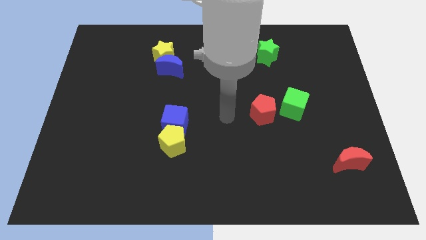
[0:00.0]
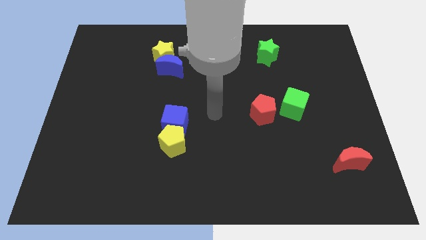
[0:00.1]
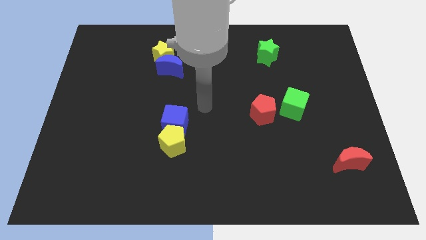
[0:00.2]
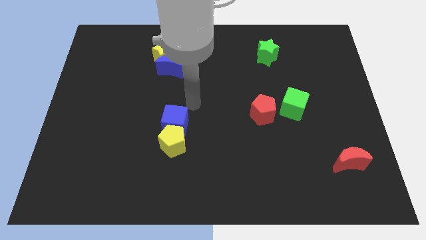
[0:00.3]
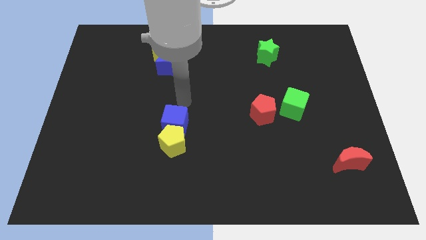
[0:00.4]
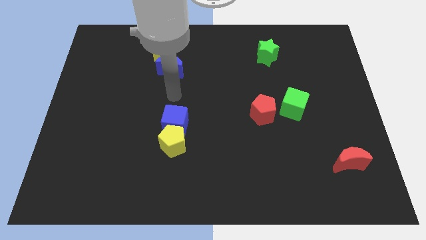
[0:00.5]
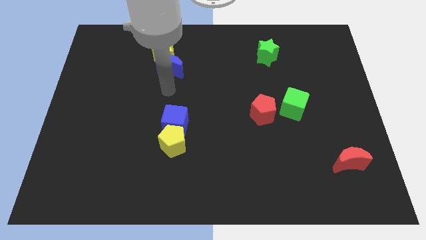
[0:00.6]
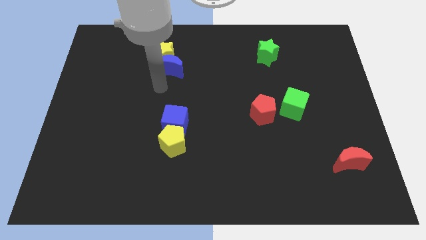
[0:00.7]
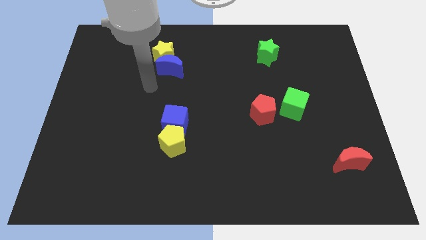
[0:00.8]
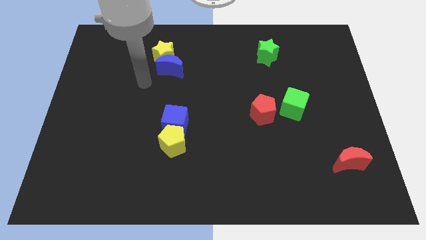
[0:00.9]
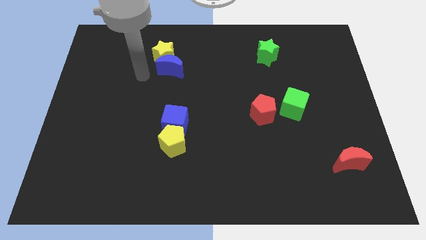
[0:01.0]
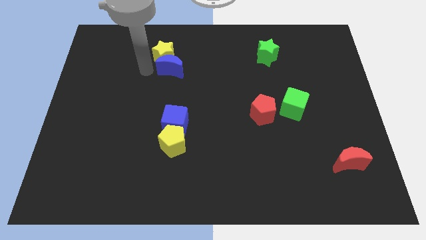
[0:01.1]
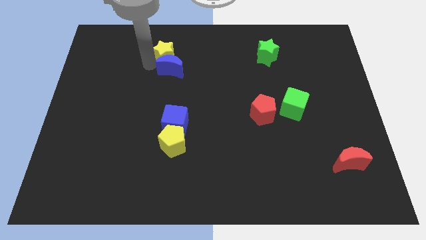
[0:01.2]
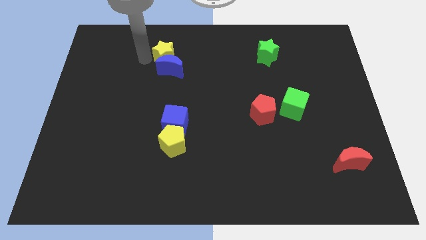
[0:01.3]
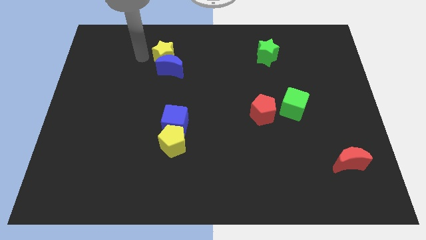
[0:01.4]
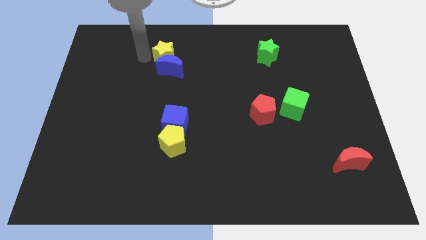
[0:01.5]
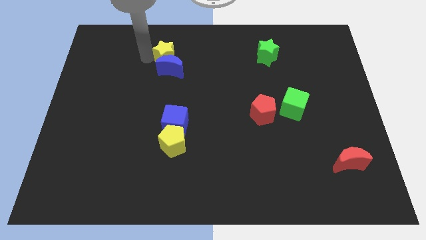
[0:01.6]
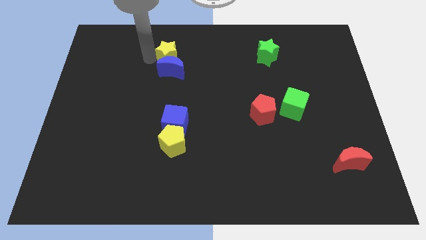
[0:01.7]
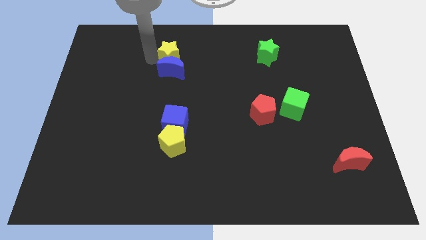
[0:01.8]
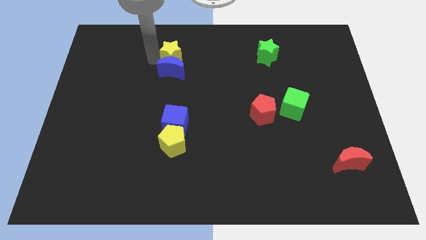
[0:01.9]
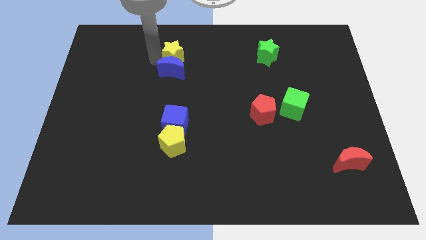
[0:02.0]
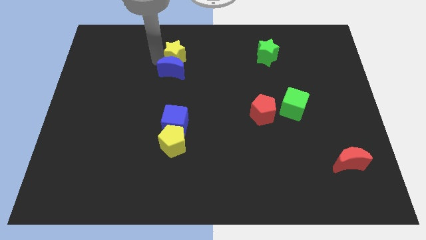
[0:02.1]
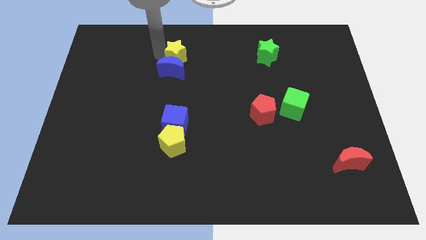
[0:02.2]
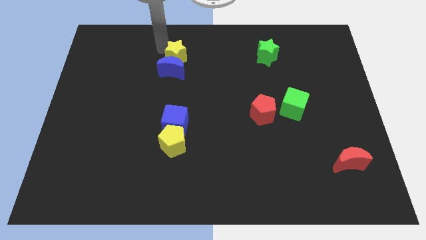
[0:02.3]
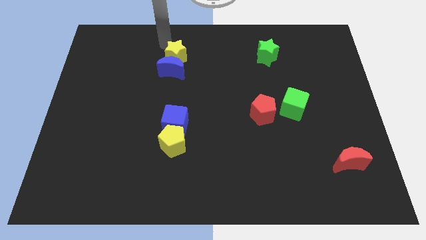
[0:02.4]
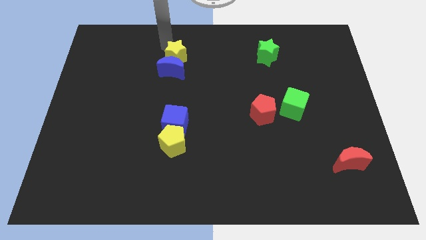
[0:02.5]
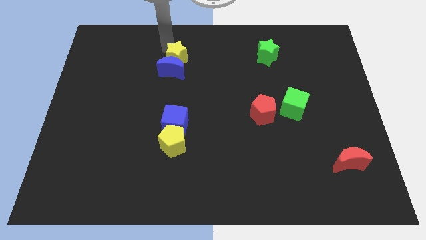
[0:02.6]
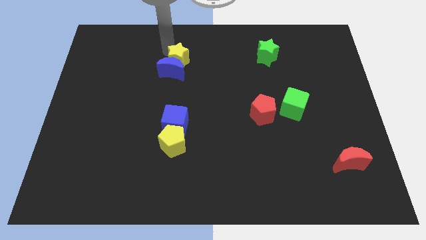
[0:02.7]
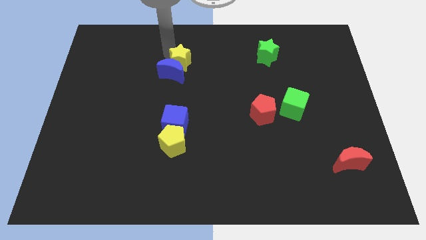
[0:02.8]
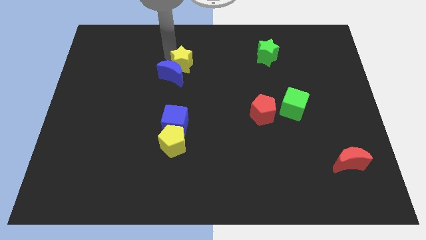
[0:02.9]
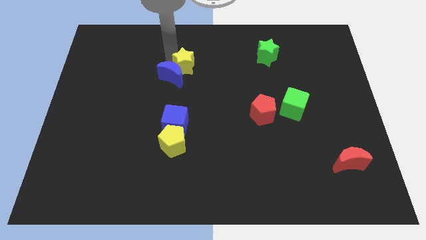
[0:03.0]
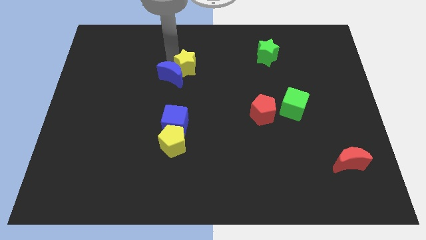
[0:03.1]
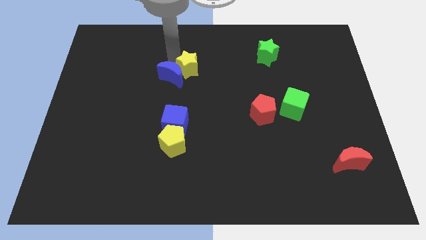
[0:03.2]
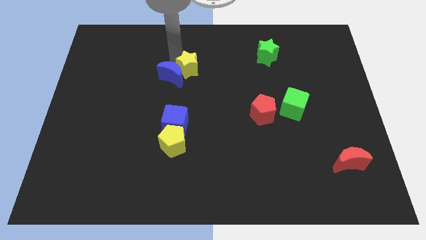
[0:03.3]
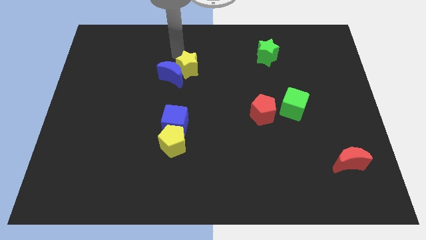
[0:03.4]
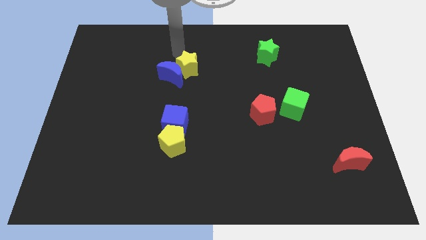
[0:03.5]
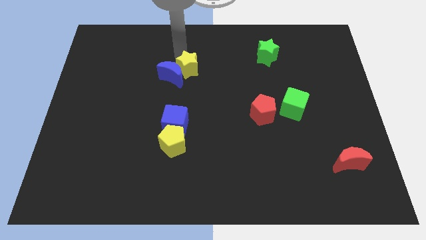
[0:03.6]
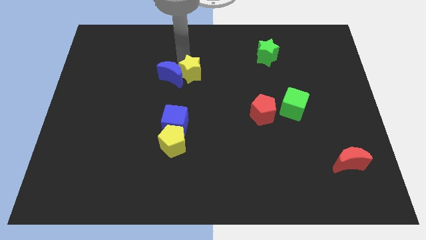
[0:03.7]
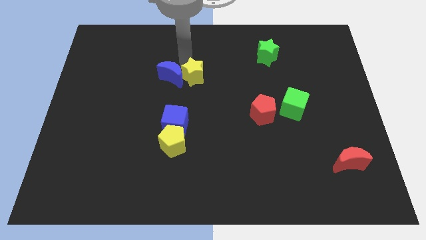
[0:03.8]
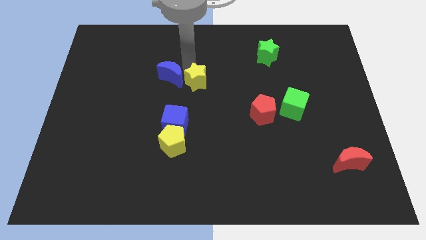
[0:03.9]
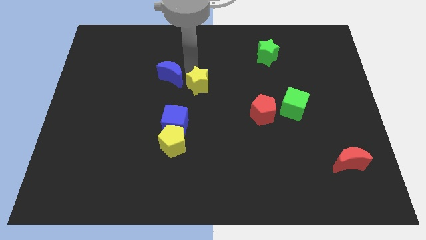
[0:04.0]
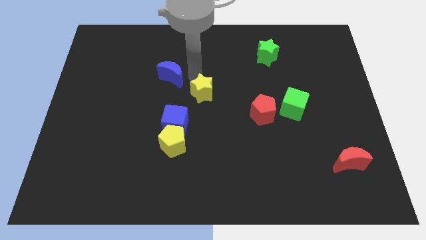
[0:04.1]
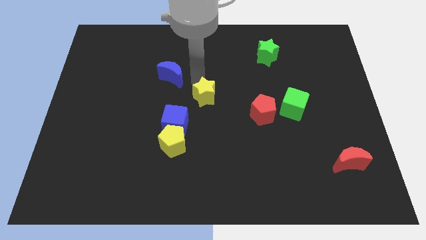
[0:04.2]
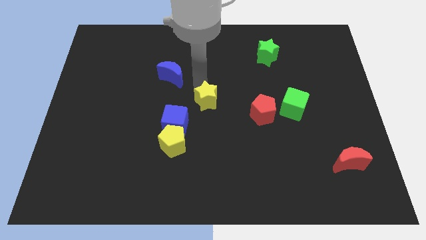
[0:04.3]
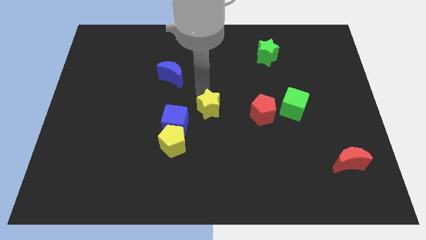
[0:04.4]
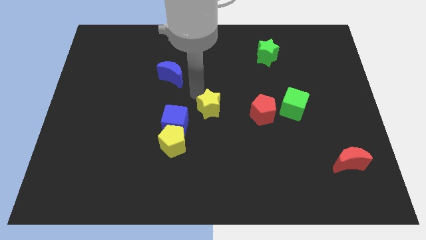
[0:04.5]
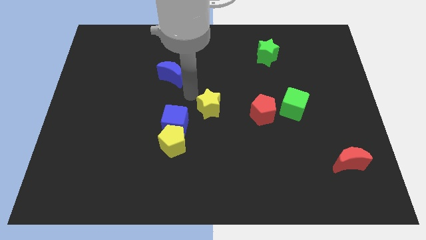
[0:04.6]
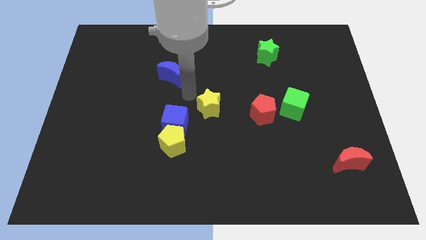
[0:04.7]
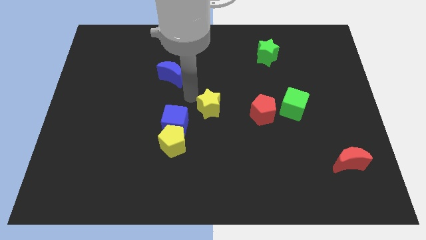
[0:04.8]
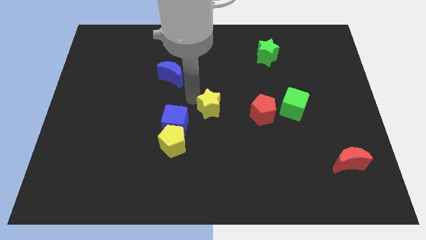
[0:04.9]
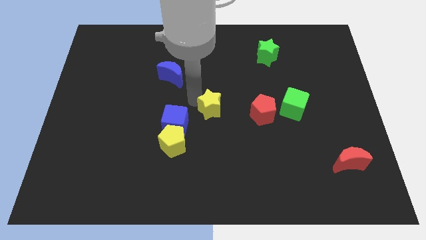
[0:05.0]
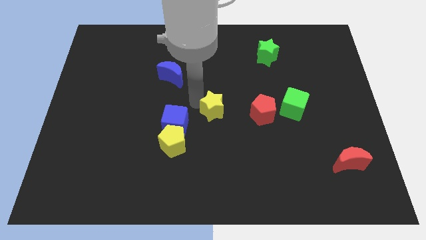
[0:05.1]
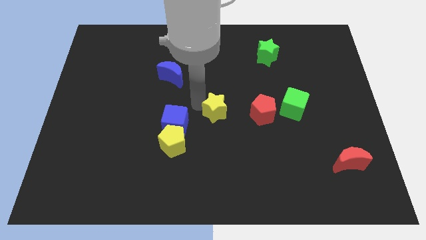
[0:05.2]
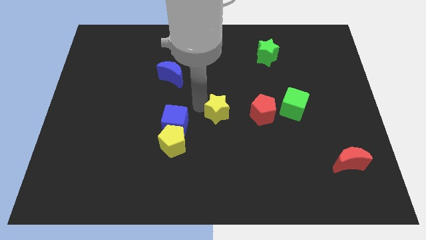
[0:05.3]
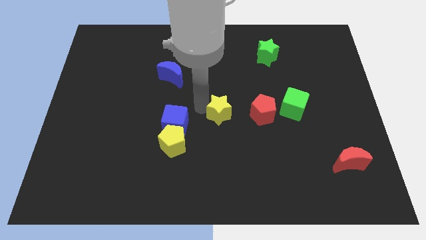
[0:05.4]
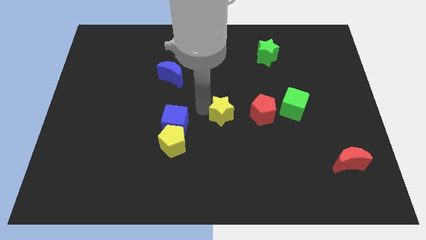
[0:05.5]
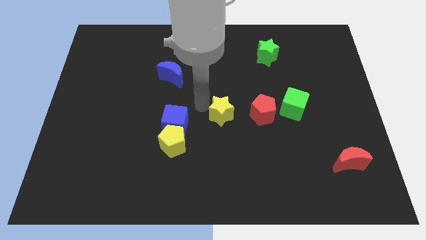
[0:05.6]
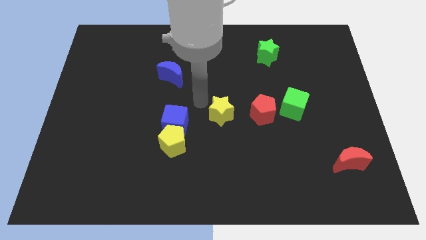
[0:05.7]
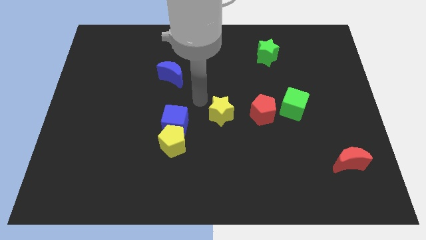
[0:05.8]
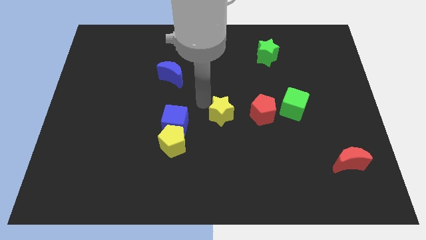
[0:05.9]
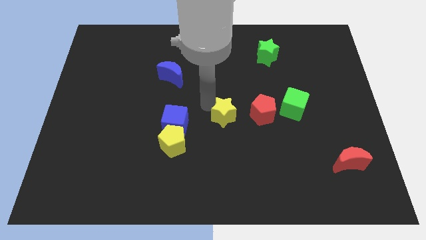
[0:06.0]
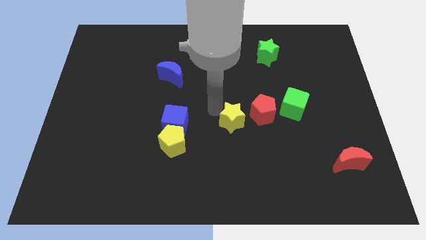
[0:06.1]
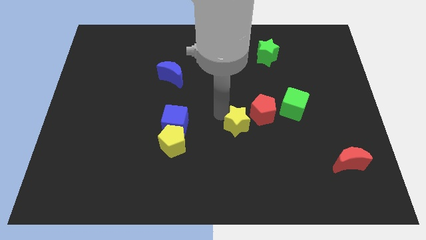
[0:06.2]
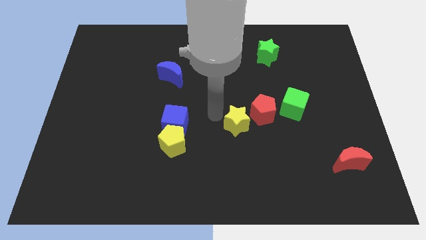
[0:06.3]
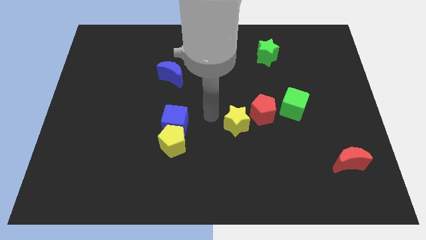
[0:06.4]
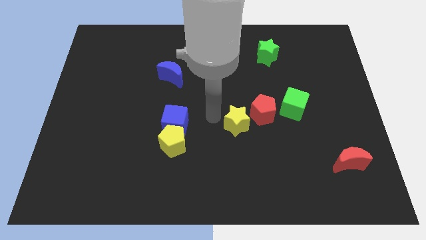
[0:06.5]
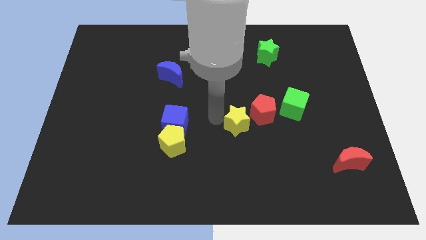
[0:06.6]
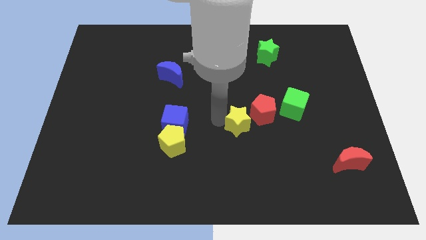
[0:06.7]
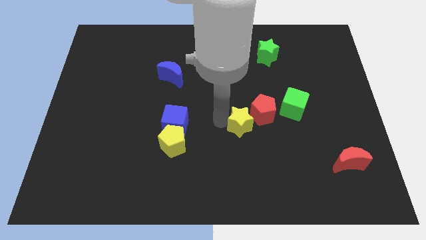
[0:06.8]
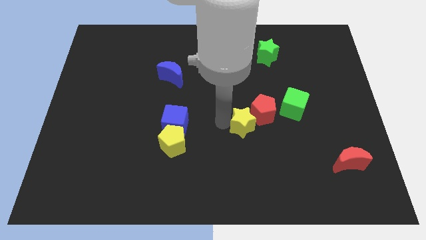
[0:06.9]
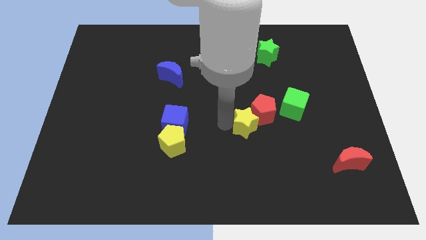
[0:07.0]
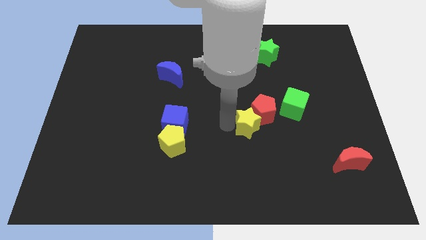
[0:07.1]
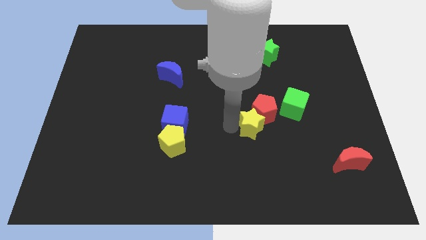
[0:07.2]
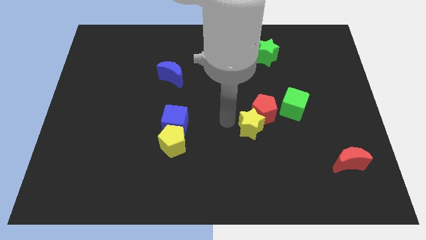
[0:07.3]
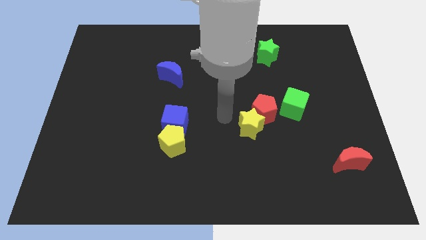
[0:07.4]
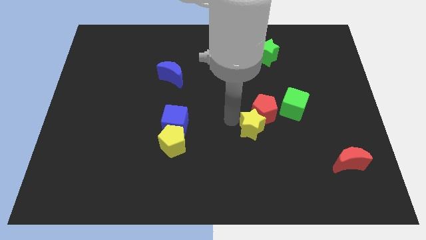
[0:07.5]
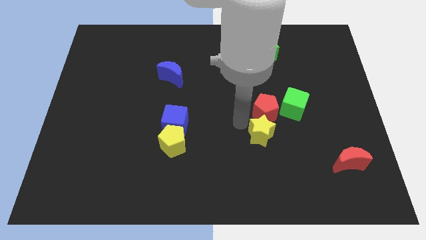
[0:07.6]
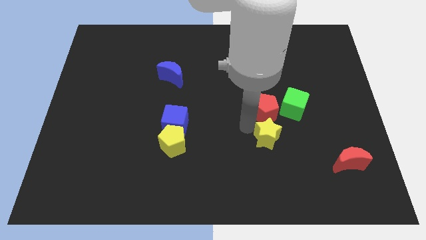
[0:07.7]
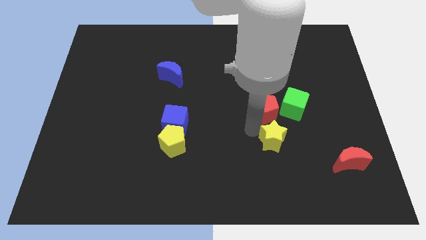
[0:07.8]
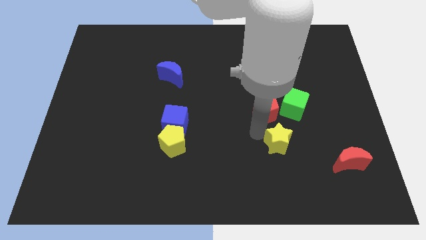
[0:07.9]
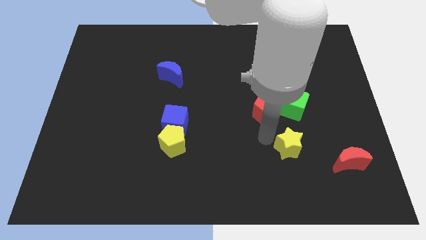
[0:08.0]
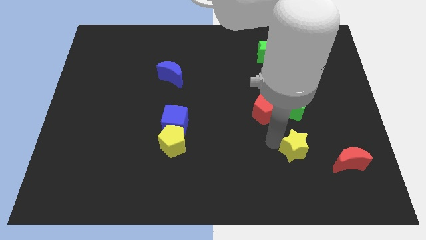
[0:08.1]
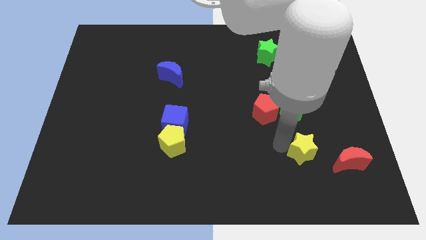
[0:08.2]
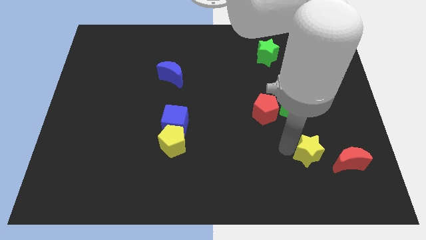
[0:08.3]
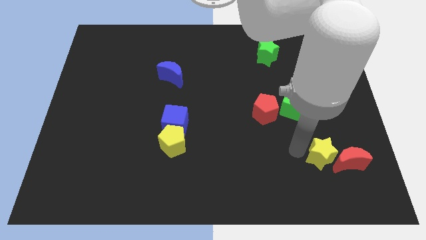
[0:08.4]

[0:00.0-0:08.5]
move the yellow star towards the red moon
